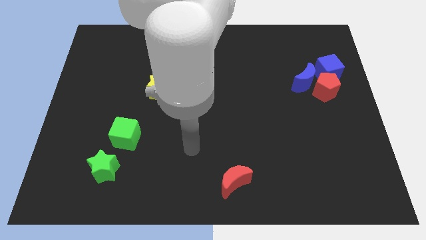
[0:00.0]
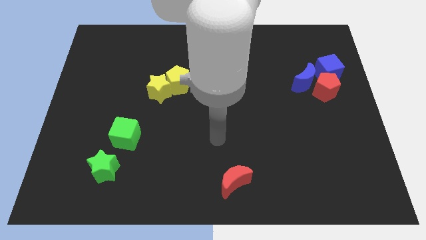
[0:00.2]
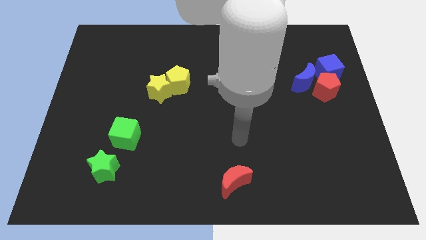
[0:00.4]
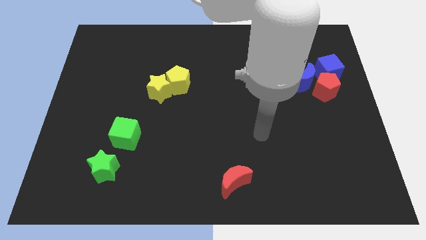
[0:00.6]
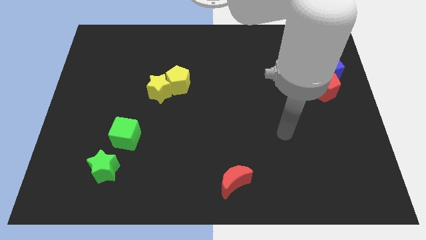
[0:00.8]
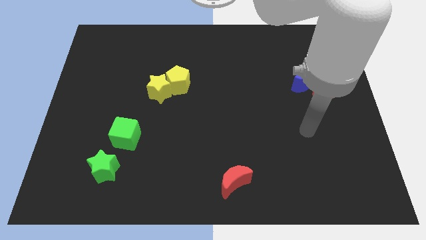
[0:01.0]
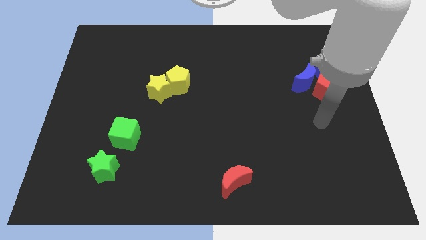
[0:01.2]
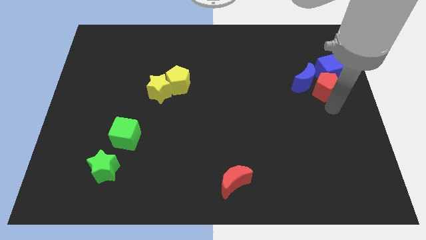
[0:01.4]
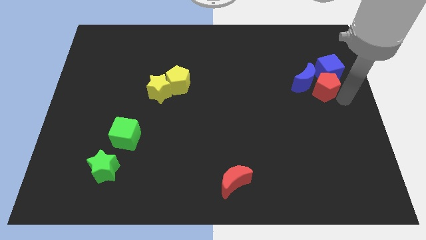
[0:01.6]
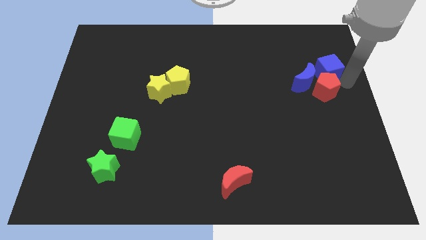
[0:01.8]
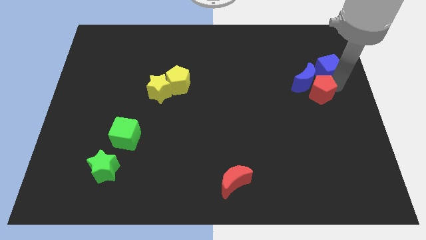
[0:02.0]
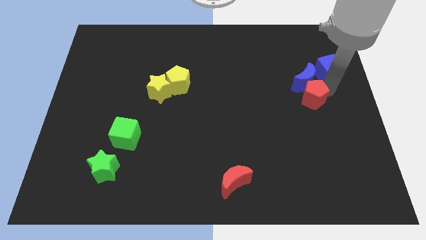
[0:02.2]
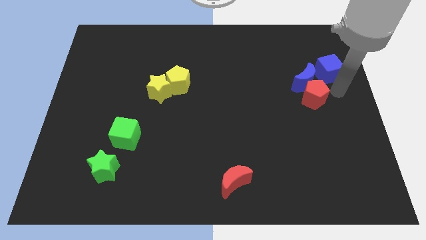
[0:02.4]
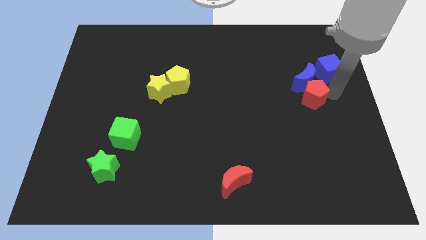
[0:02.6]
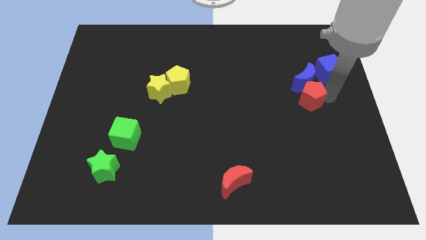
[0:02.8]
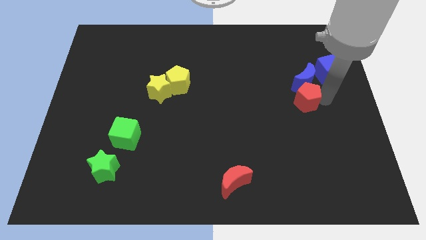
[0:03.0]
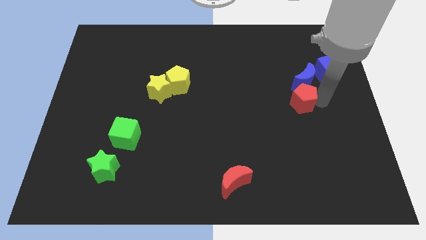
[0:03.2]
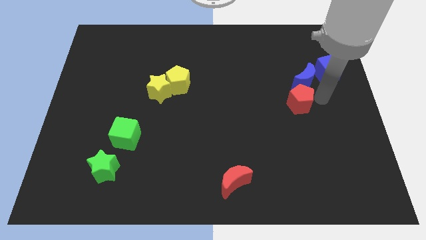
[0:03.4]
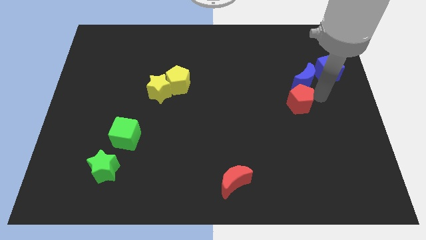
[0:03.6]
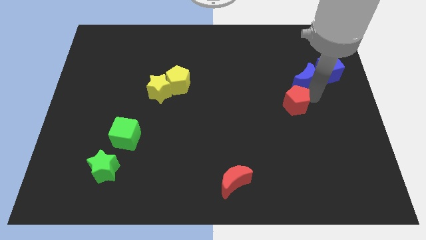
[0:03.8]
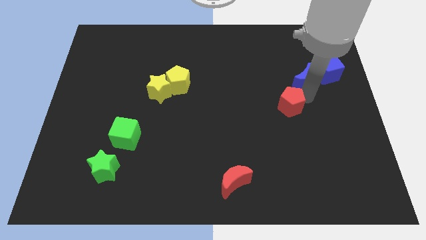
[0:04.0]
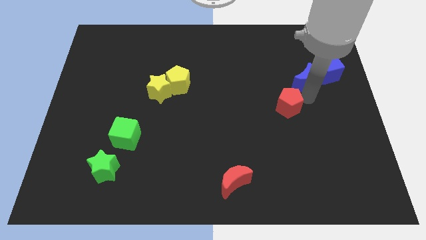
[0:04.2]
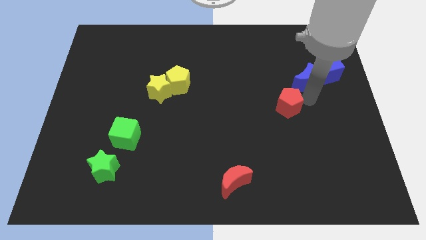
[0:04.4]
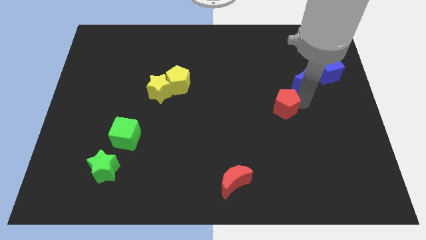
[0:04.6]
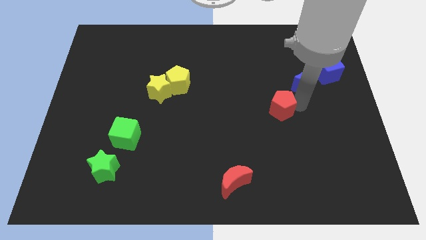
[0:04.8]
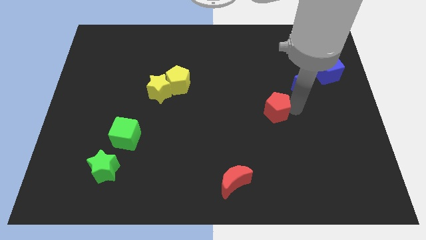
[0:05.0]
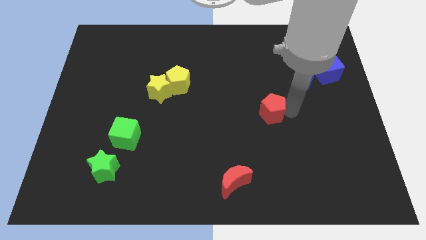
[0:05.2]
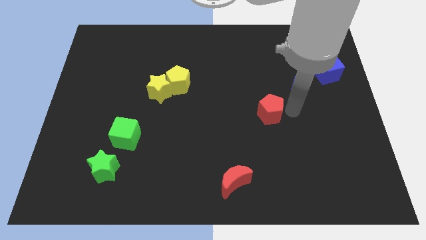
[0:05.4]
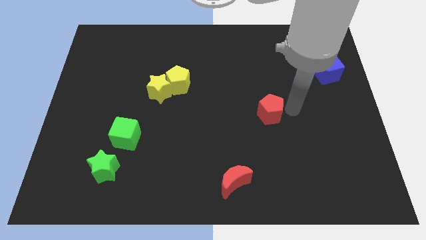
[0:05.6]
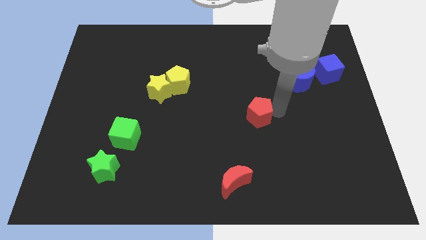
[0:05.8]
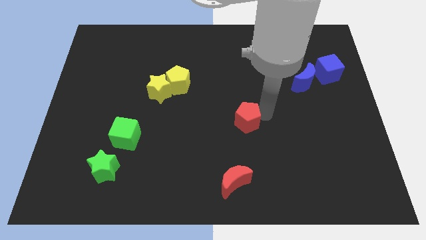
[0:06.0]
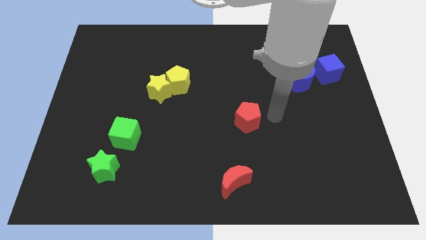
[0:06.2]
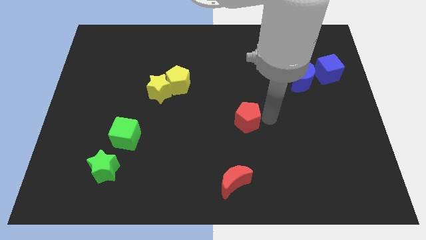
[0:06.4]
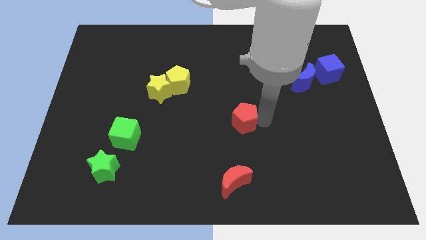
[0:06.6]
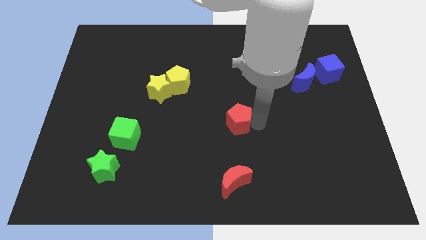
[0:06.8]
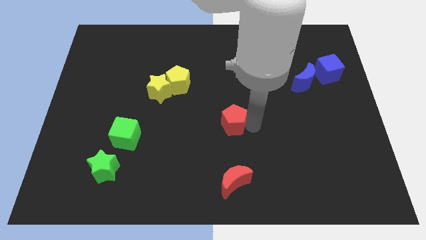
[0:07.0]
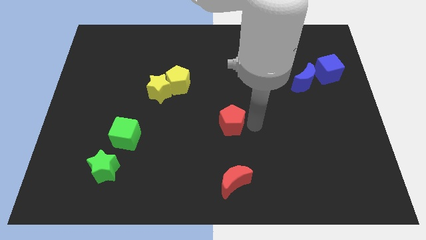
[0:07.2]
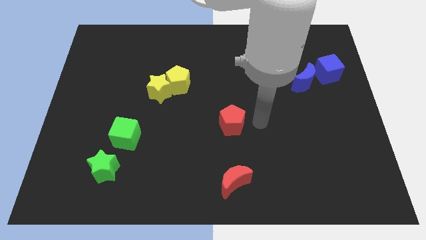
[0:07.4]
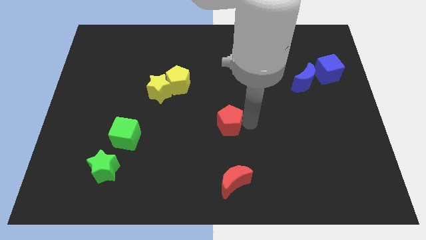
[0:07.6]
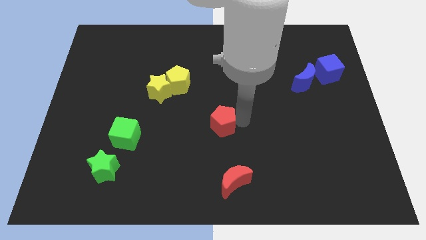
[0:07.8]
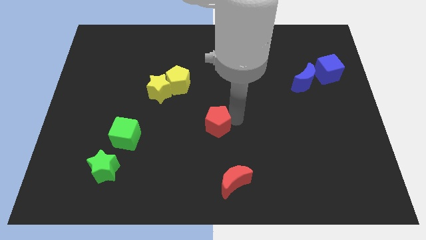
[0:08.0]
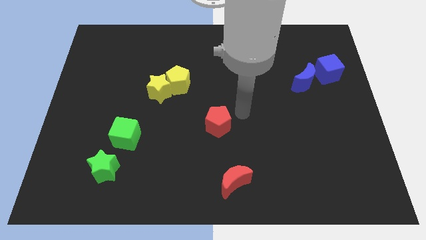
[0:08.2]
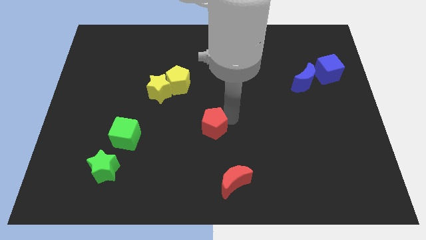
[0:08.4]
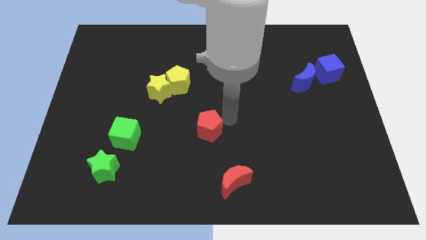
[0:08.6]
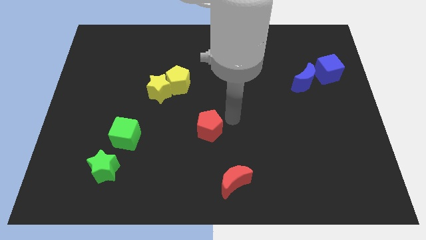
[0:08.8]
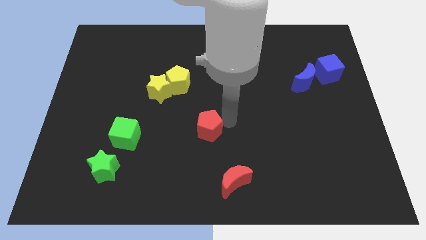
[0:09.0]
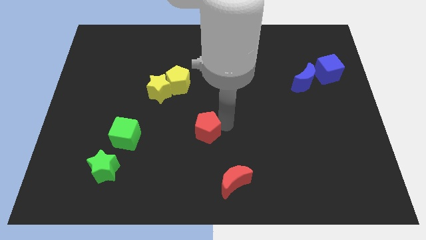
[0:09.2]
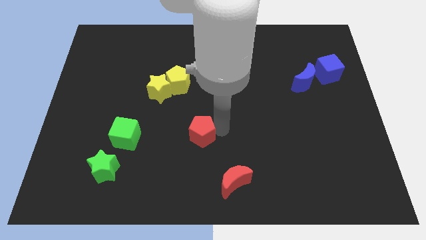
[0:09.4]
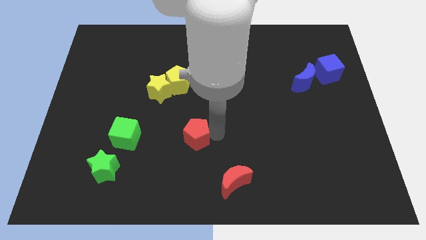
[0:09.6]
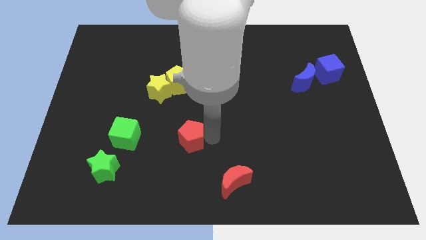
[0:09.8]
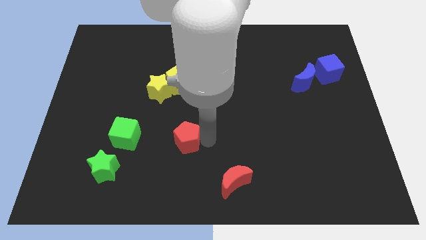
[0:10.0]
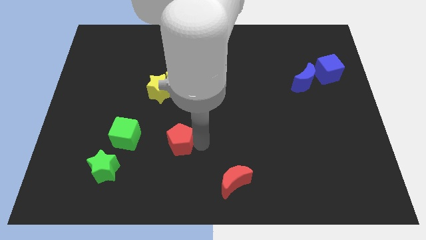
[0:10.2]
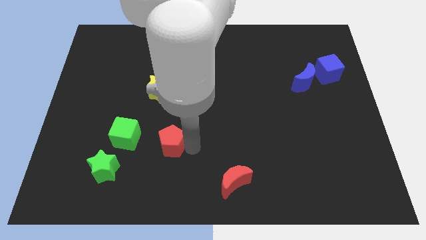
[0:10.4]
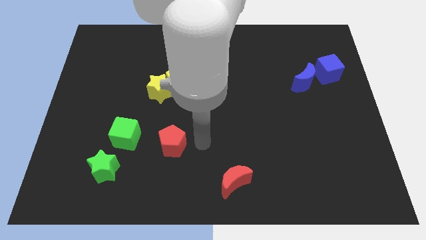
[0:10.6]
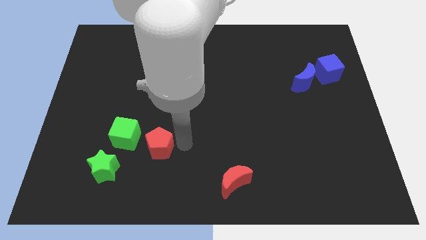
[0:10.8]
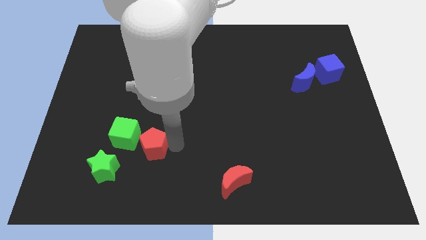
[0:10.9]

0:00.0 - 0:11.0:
put the red pentagon to the top right of the green star

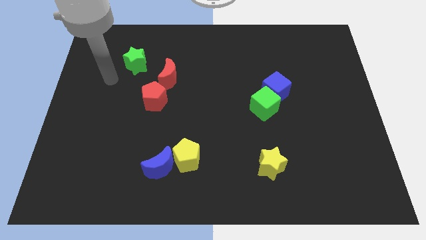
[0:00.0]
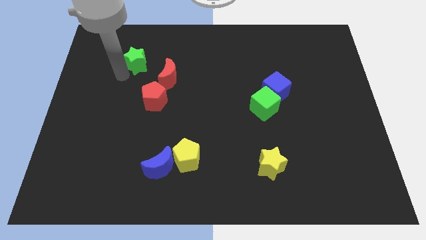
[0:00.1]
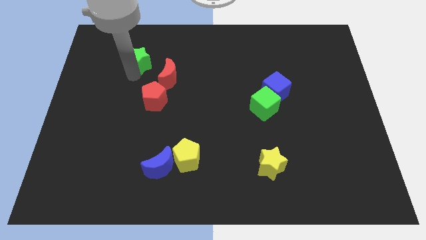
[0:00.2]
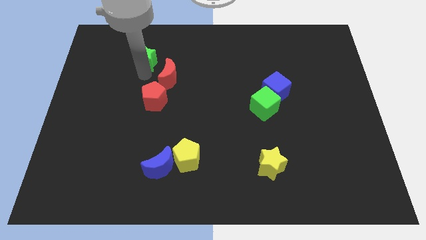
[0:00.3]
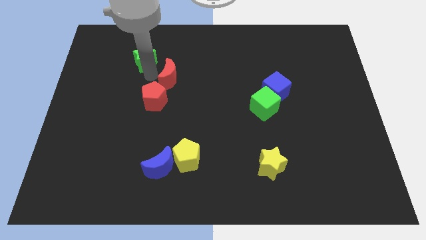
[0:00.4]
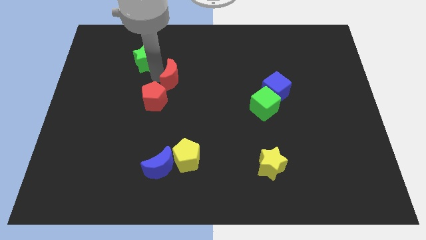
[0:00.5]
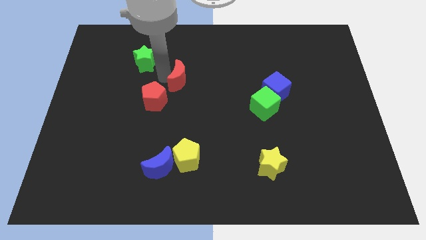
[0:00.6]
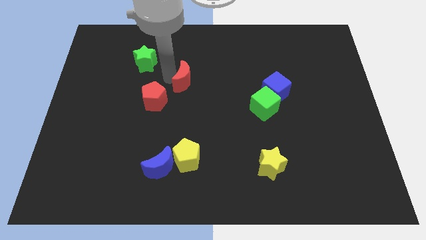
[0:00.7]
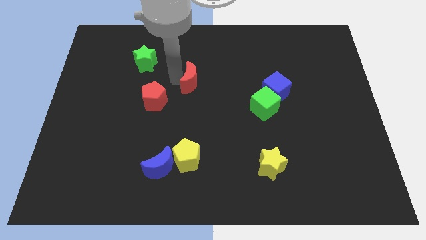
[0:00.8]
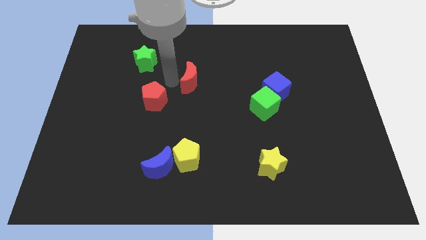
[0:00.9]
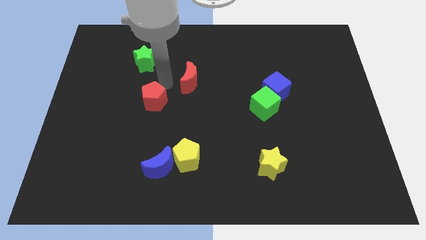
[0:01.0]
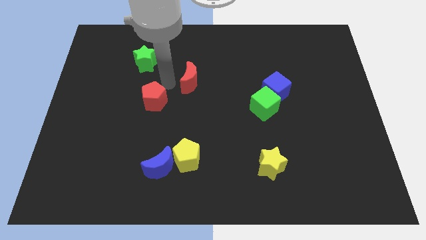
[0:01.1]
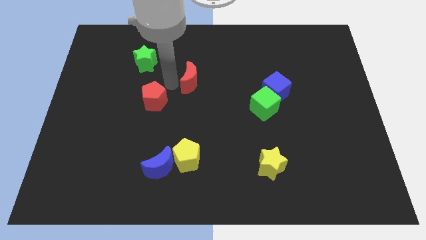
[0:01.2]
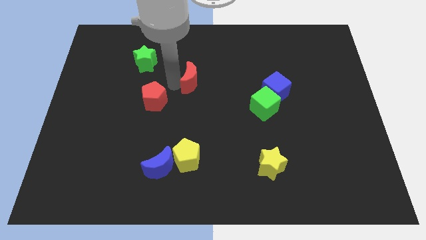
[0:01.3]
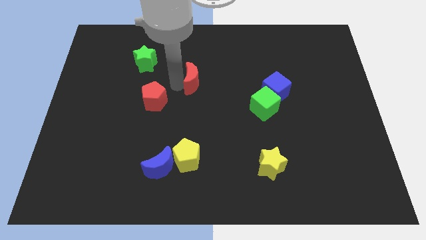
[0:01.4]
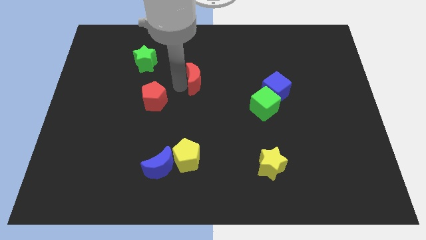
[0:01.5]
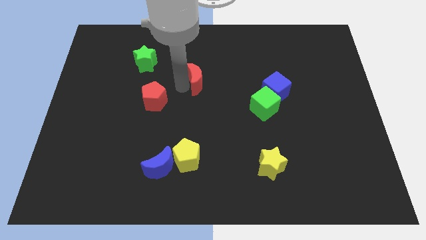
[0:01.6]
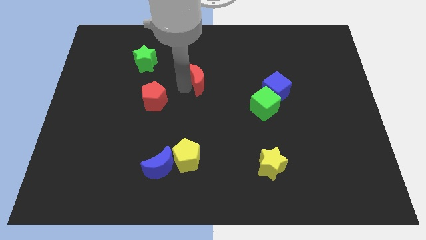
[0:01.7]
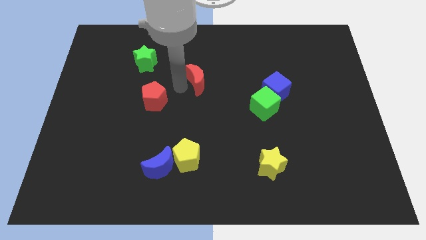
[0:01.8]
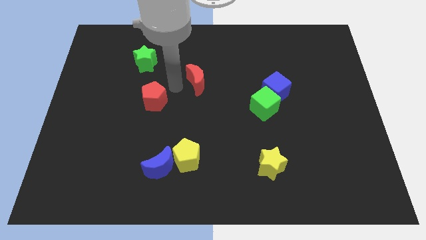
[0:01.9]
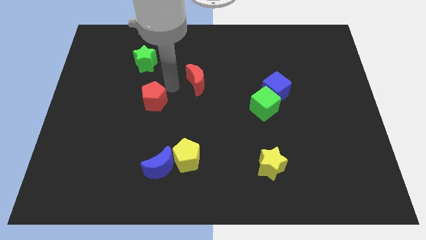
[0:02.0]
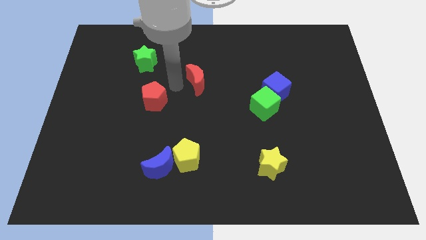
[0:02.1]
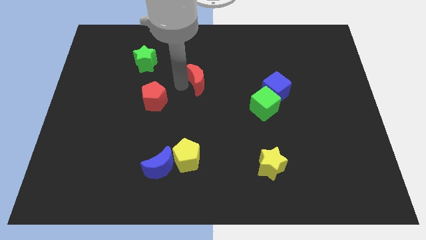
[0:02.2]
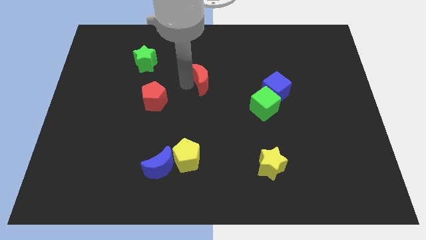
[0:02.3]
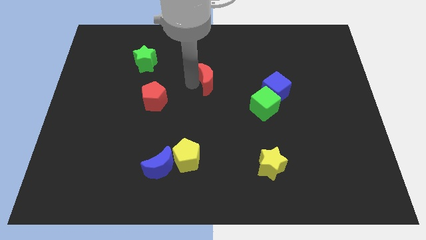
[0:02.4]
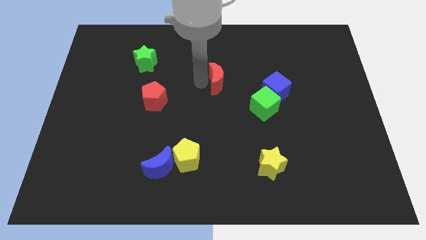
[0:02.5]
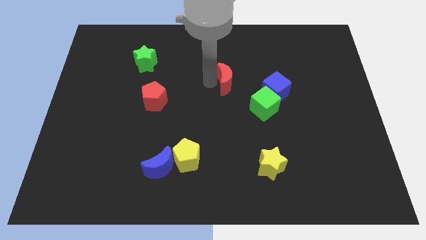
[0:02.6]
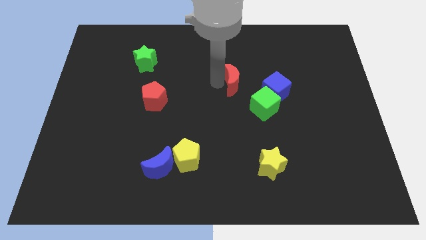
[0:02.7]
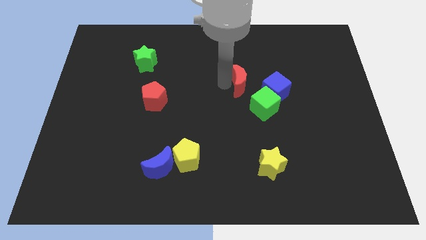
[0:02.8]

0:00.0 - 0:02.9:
put the red moon to the top left side of the blue cube
